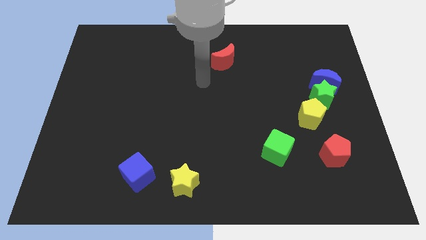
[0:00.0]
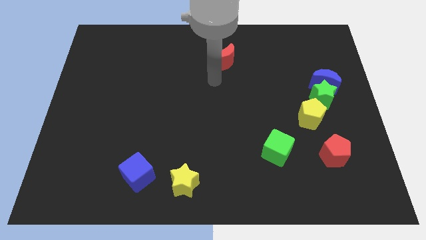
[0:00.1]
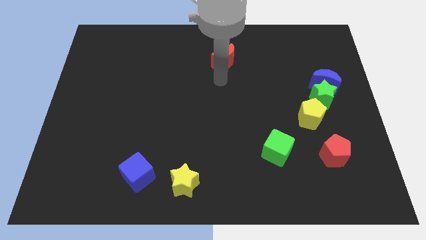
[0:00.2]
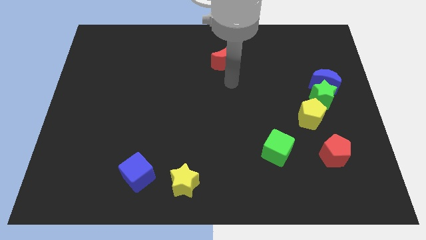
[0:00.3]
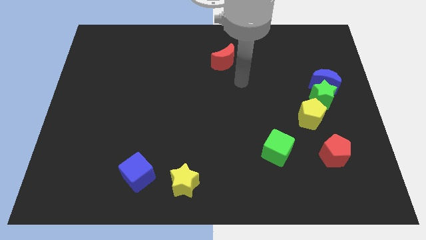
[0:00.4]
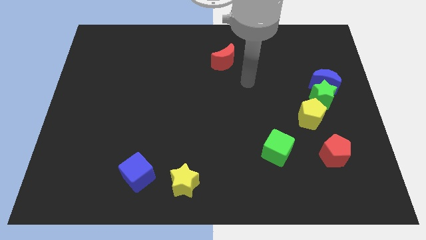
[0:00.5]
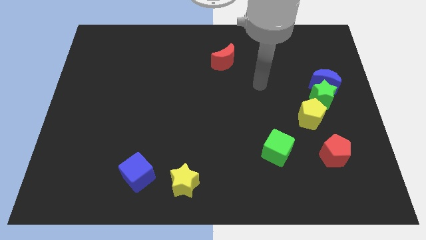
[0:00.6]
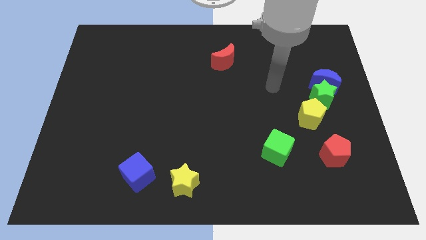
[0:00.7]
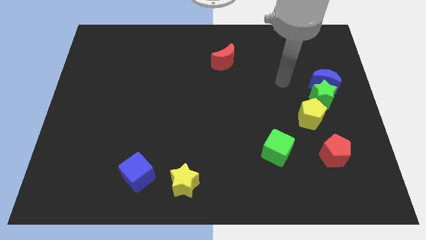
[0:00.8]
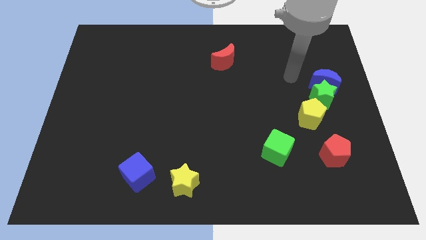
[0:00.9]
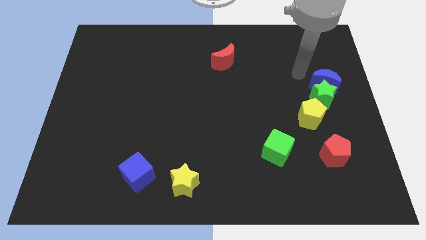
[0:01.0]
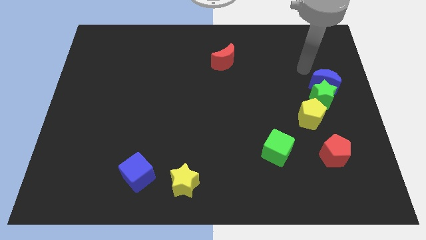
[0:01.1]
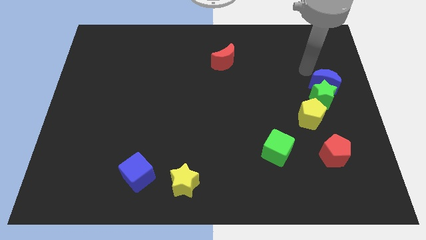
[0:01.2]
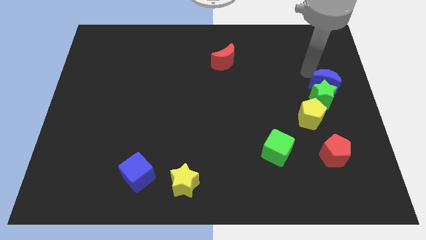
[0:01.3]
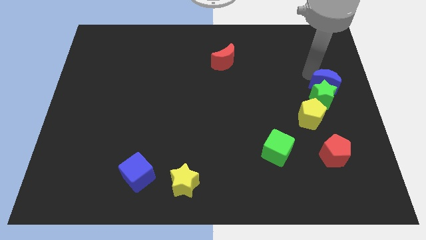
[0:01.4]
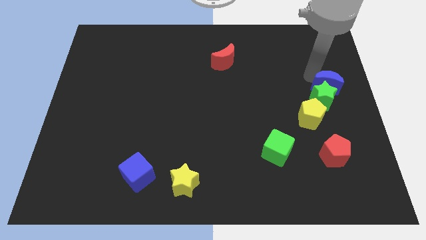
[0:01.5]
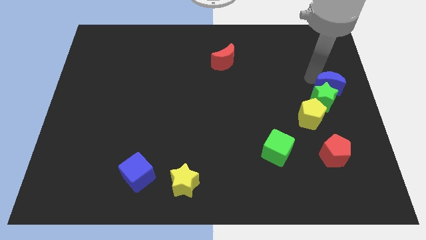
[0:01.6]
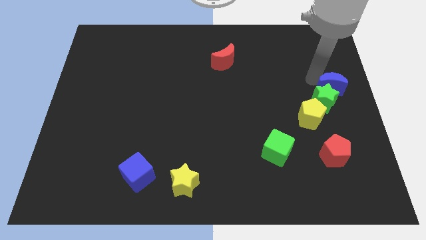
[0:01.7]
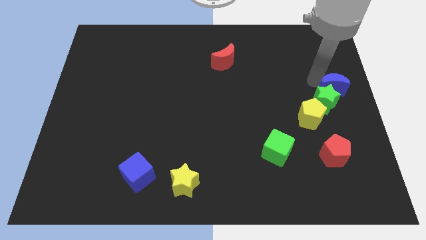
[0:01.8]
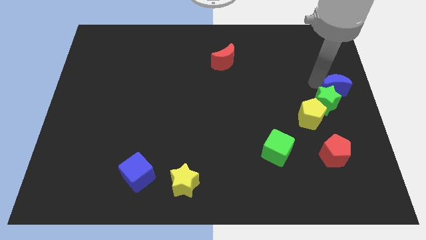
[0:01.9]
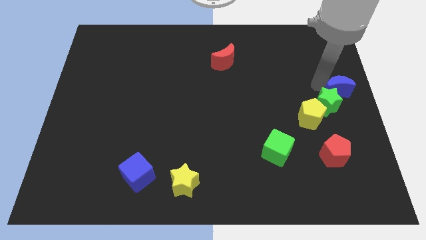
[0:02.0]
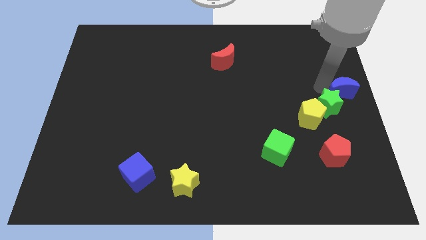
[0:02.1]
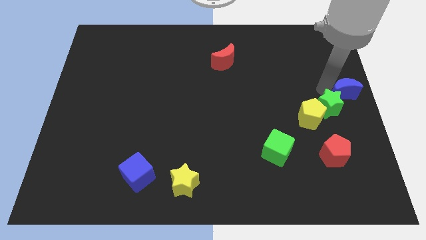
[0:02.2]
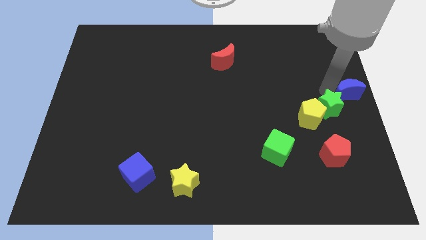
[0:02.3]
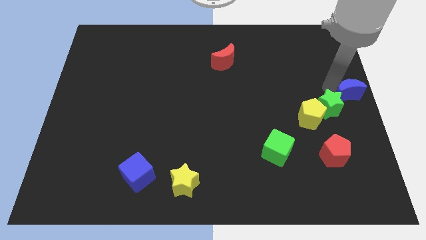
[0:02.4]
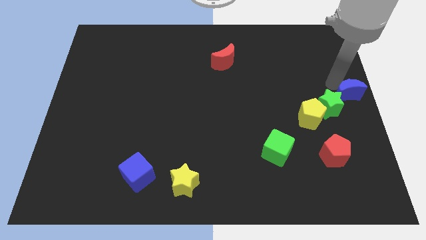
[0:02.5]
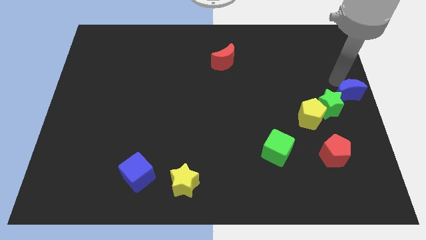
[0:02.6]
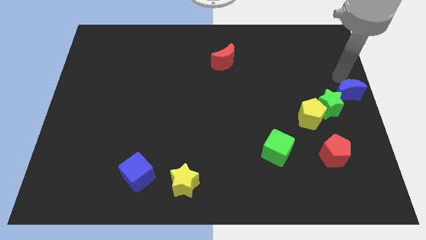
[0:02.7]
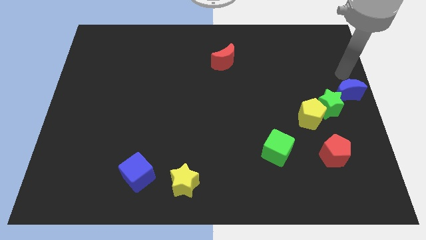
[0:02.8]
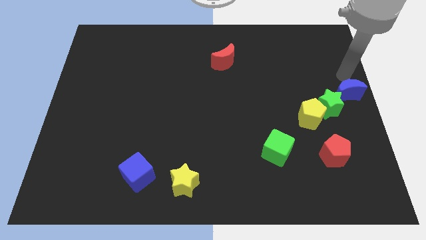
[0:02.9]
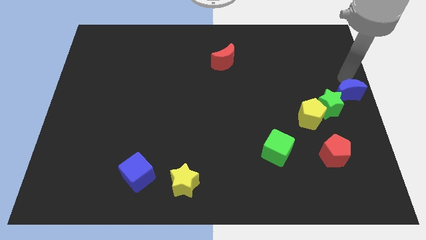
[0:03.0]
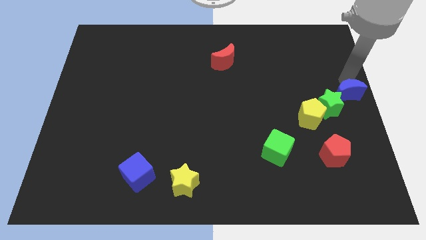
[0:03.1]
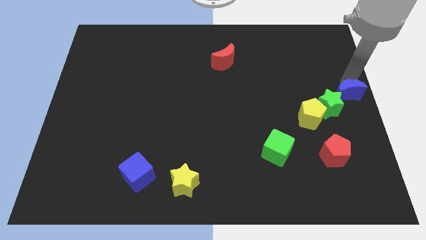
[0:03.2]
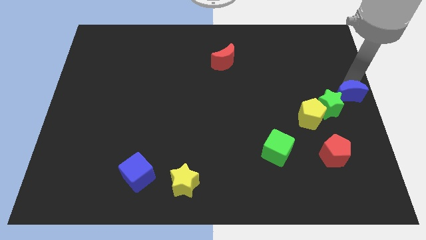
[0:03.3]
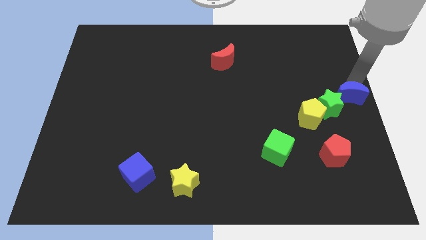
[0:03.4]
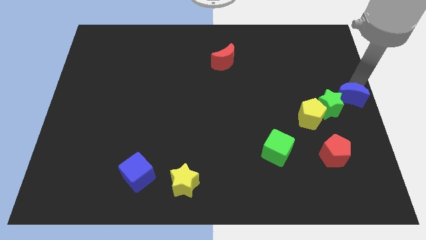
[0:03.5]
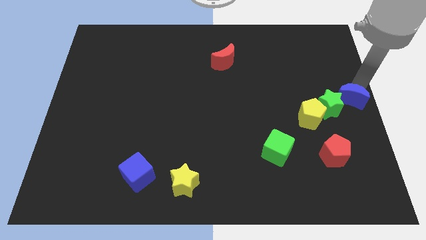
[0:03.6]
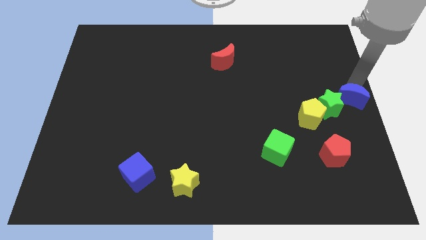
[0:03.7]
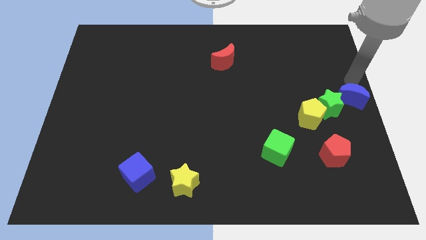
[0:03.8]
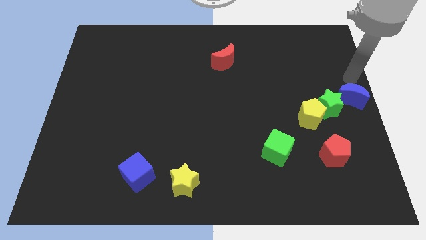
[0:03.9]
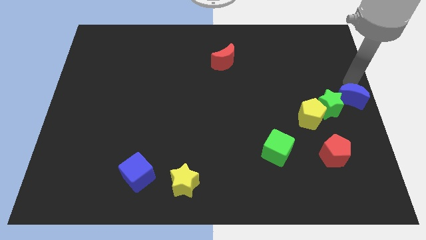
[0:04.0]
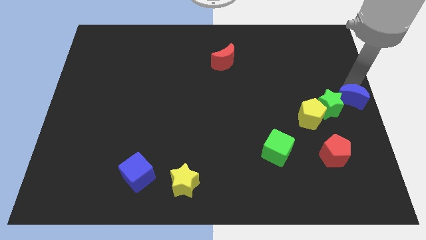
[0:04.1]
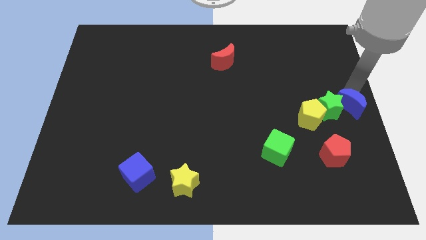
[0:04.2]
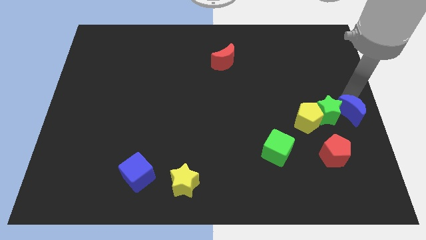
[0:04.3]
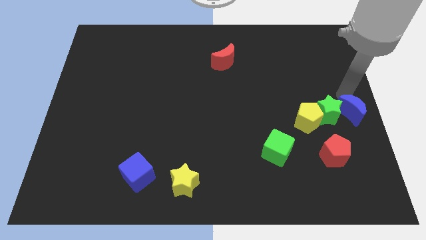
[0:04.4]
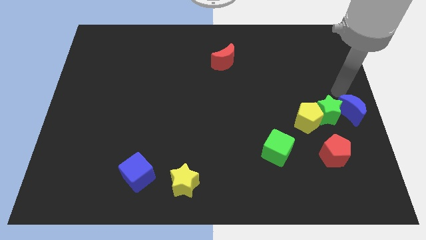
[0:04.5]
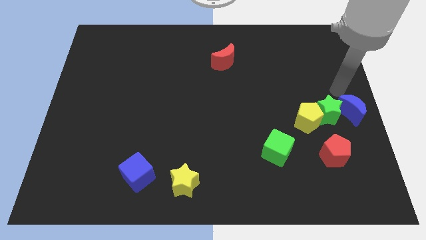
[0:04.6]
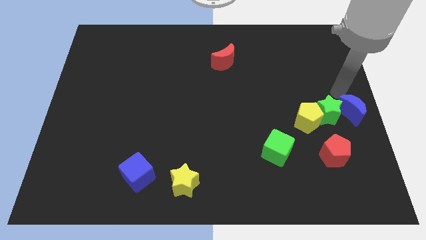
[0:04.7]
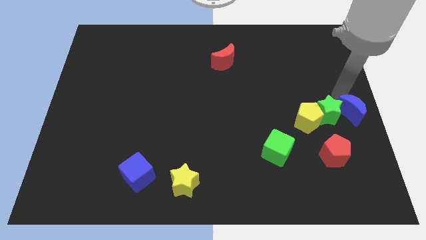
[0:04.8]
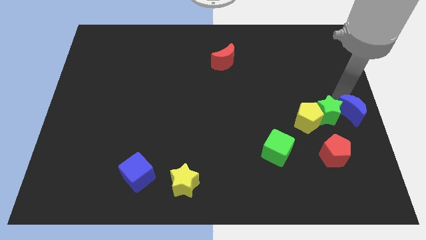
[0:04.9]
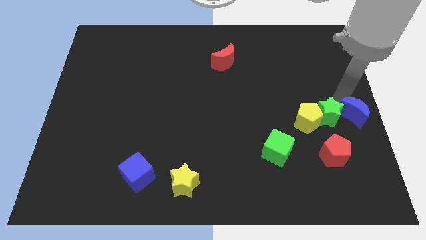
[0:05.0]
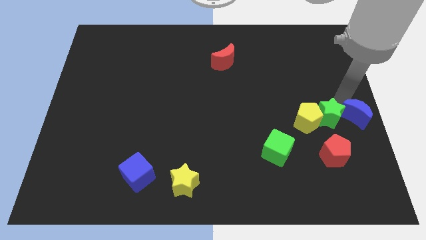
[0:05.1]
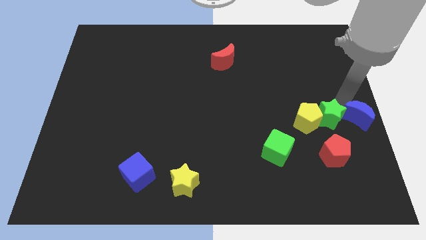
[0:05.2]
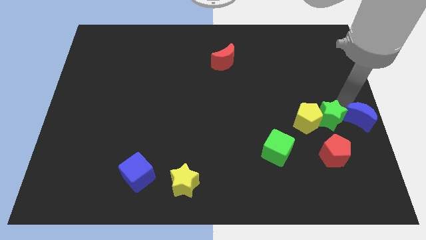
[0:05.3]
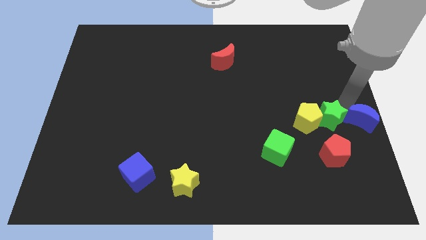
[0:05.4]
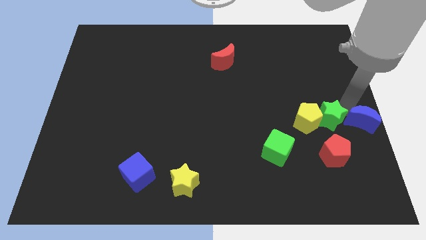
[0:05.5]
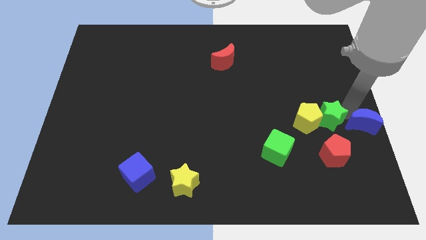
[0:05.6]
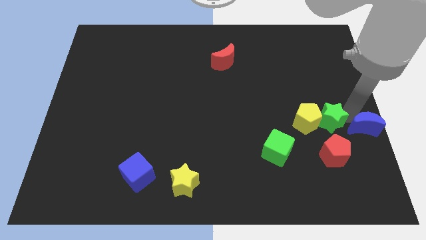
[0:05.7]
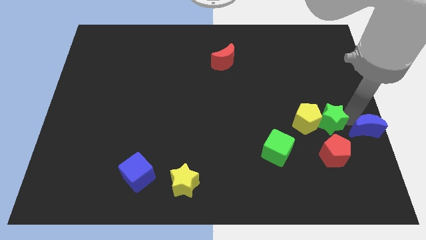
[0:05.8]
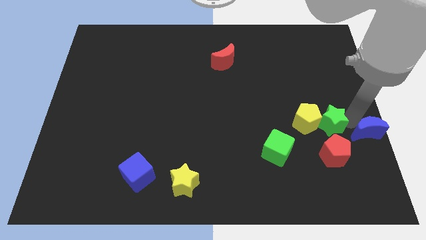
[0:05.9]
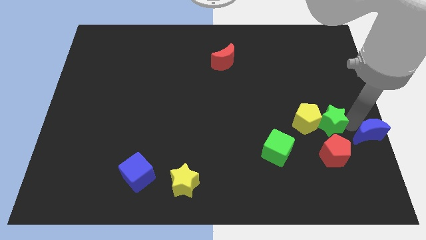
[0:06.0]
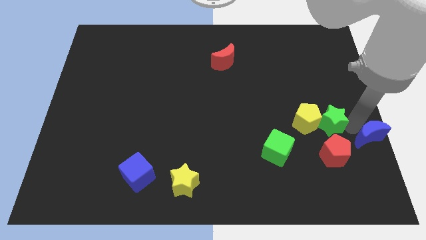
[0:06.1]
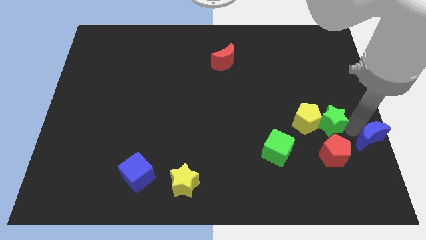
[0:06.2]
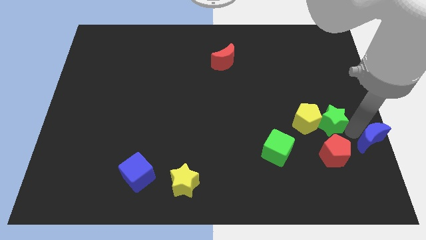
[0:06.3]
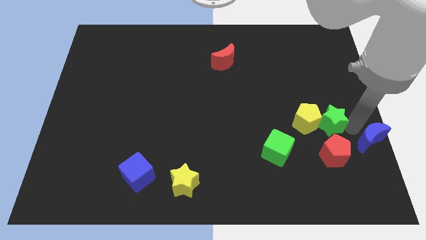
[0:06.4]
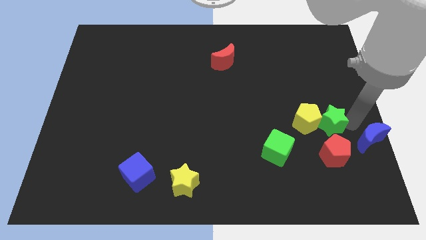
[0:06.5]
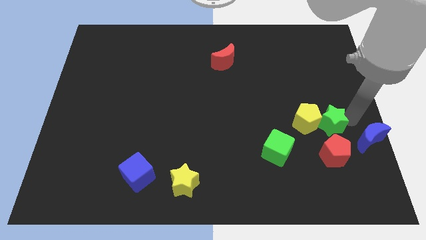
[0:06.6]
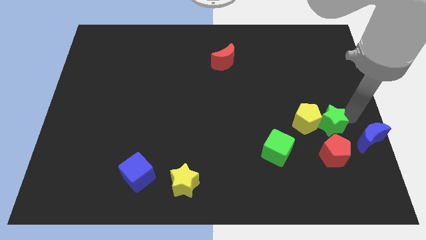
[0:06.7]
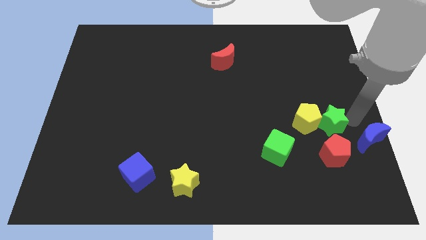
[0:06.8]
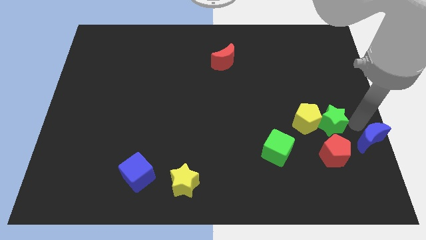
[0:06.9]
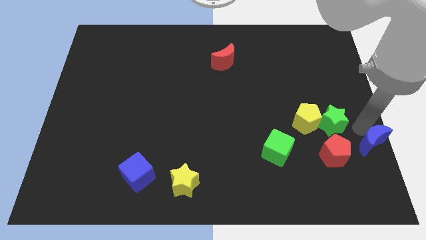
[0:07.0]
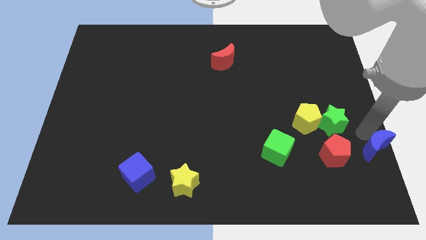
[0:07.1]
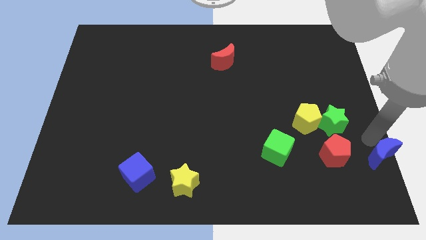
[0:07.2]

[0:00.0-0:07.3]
slide the blue moon to the bottom right corner
